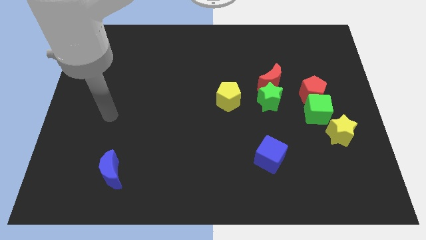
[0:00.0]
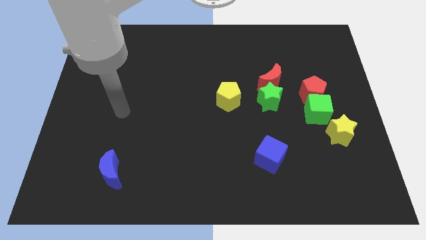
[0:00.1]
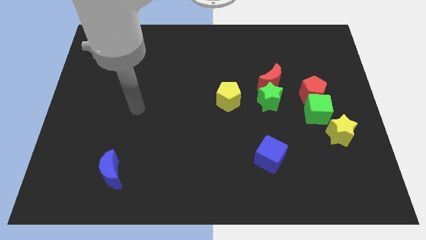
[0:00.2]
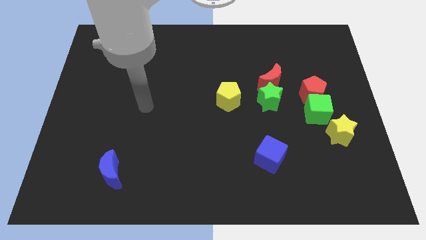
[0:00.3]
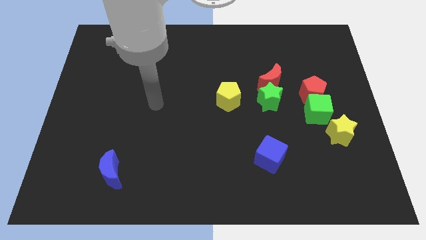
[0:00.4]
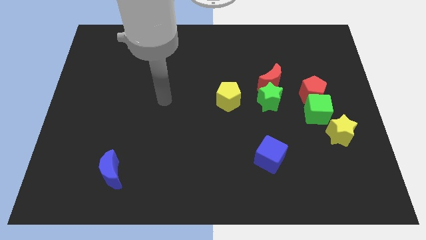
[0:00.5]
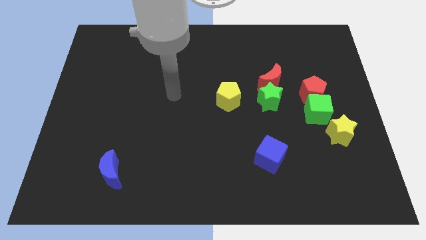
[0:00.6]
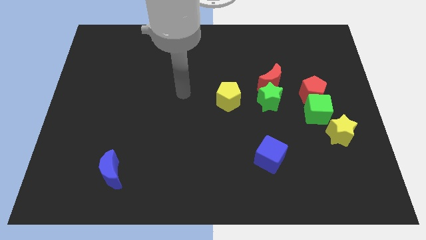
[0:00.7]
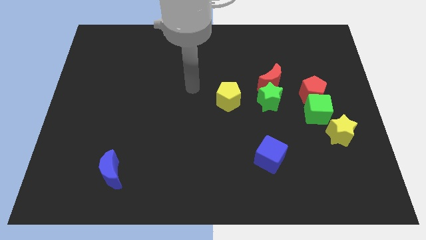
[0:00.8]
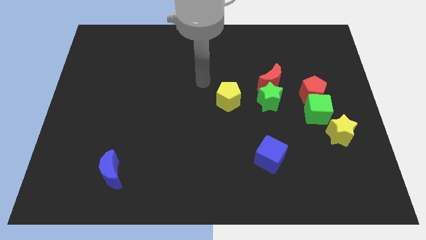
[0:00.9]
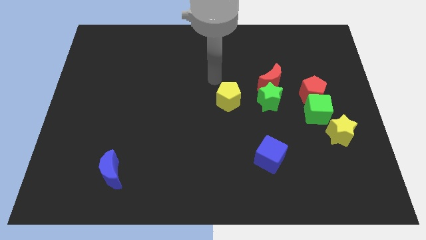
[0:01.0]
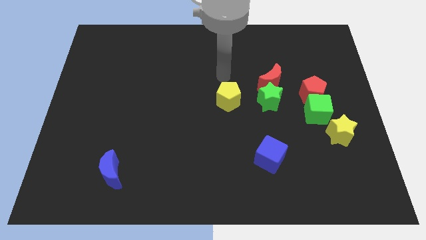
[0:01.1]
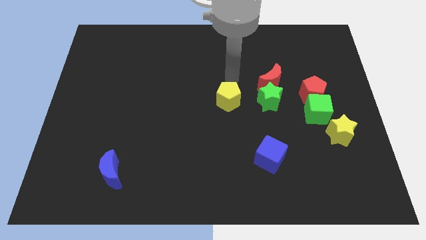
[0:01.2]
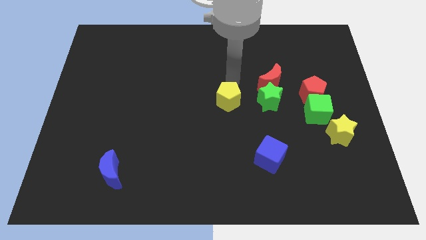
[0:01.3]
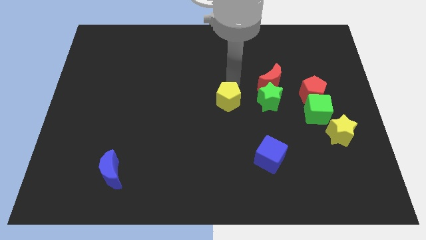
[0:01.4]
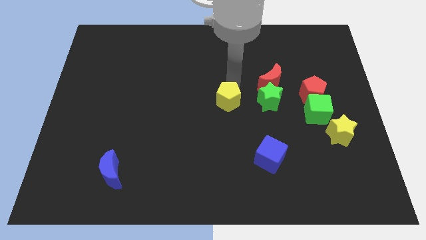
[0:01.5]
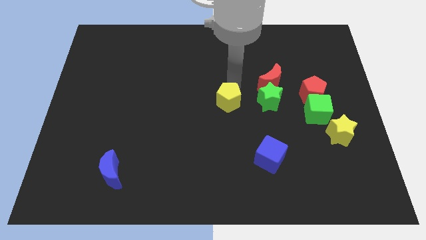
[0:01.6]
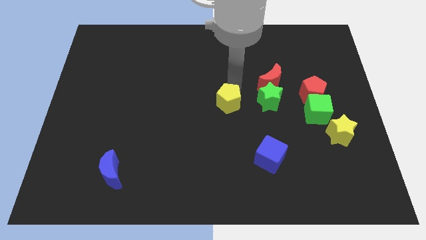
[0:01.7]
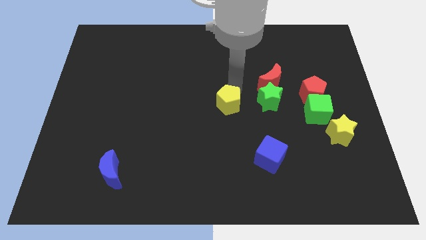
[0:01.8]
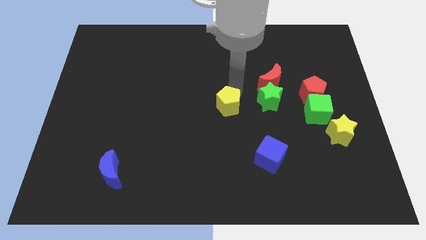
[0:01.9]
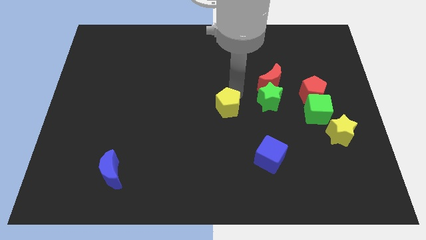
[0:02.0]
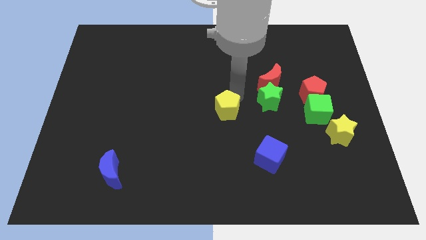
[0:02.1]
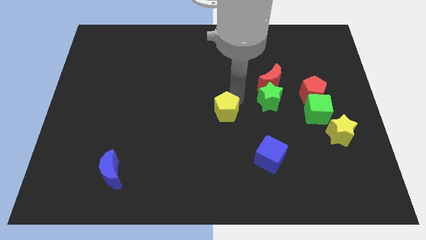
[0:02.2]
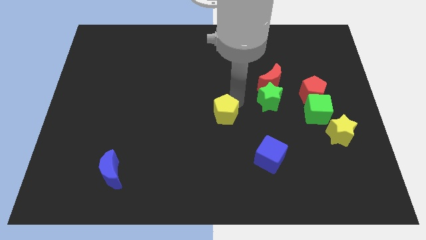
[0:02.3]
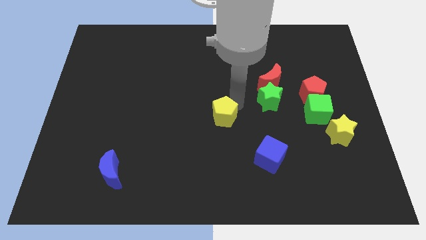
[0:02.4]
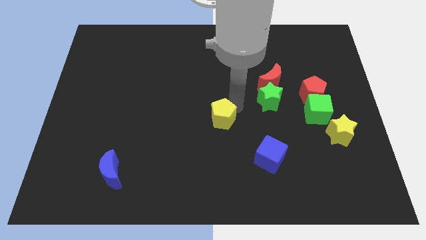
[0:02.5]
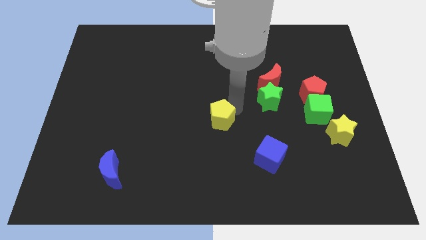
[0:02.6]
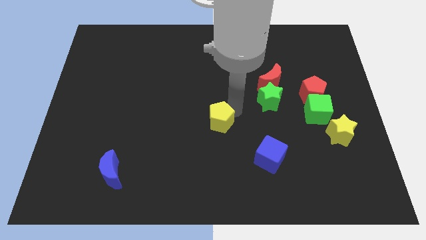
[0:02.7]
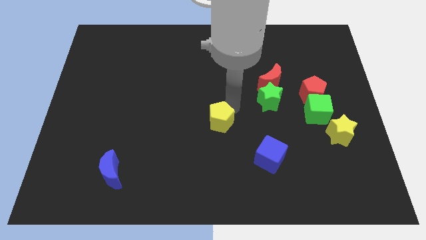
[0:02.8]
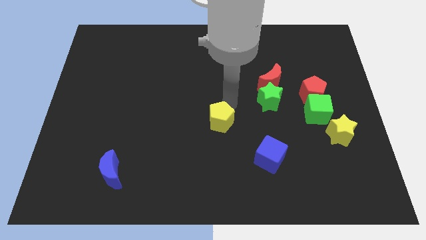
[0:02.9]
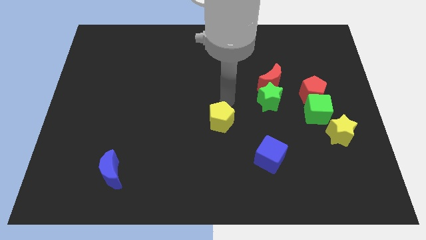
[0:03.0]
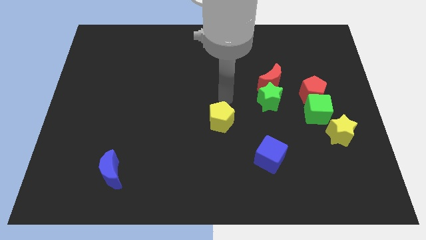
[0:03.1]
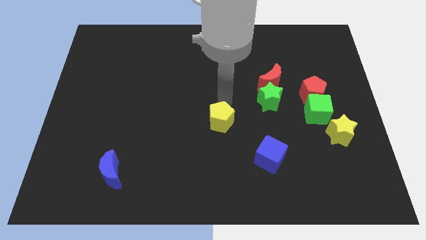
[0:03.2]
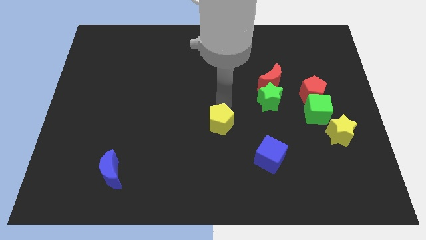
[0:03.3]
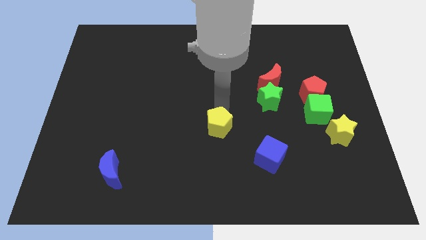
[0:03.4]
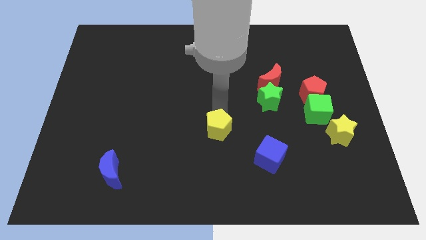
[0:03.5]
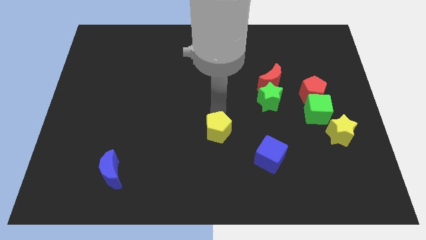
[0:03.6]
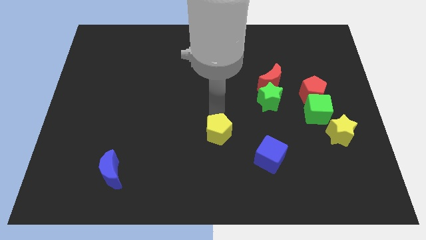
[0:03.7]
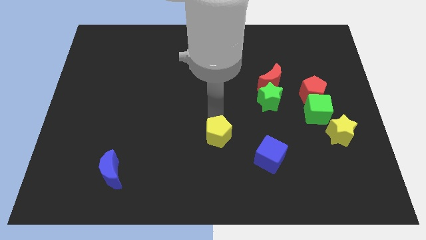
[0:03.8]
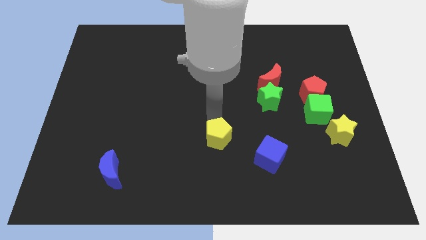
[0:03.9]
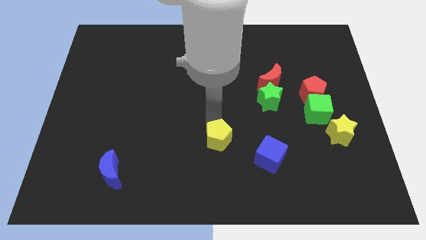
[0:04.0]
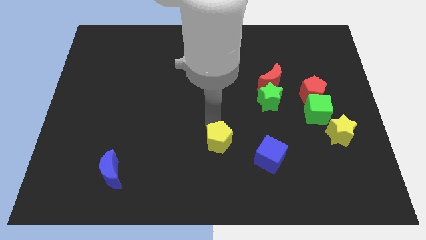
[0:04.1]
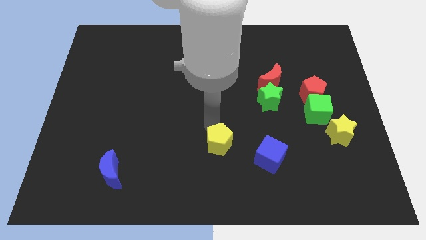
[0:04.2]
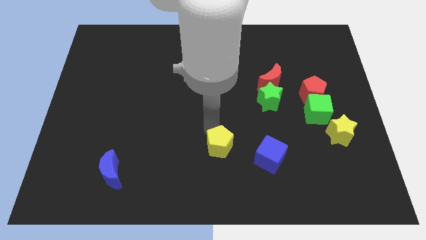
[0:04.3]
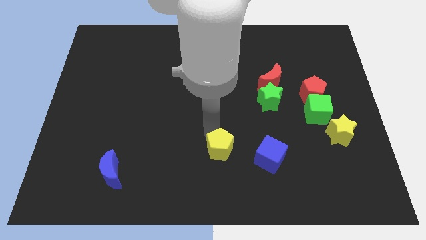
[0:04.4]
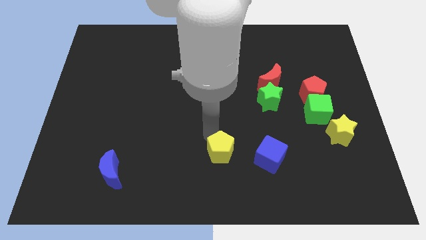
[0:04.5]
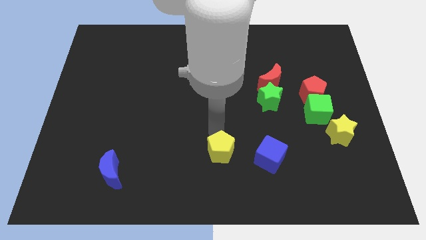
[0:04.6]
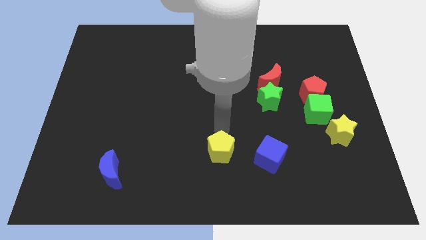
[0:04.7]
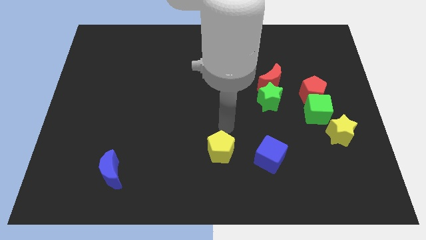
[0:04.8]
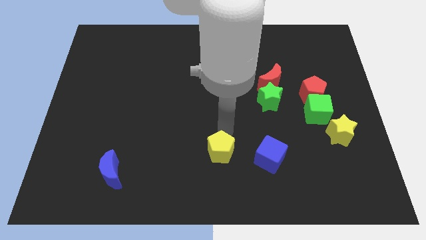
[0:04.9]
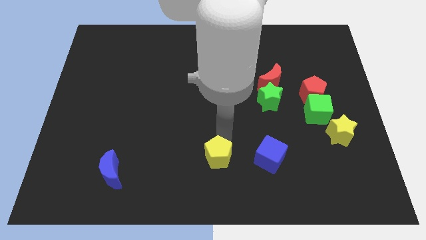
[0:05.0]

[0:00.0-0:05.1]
push the yellow pentagon to the bottom
